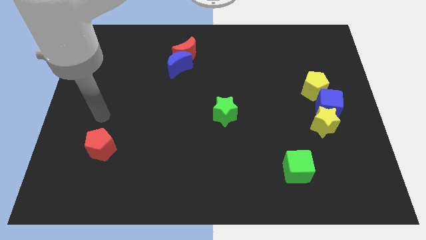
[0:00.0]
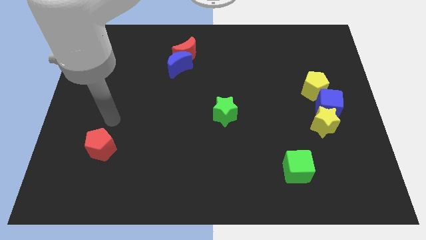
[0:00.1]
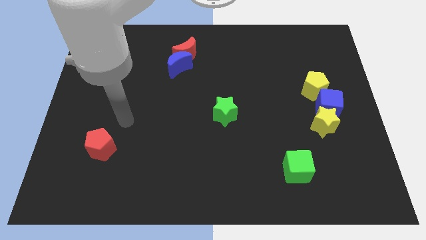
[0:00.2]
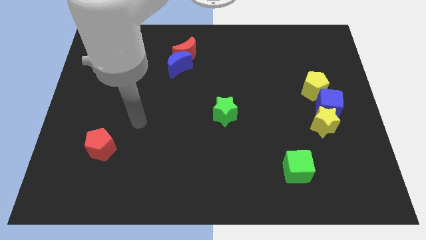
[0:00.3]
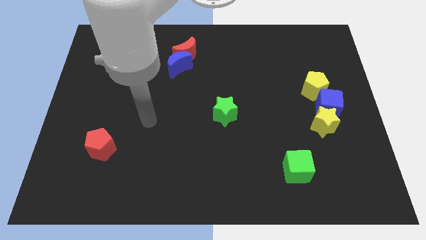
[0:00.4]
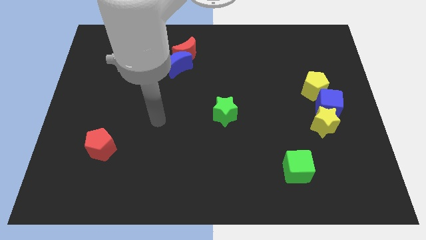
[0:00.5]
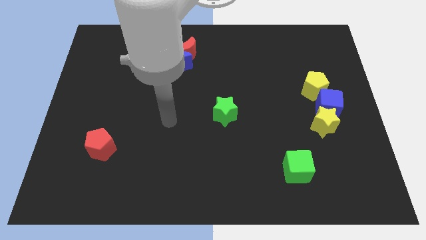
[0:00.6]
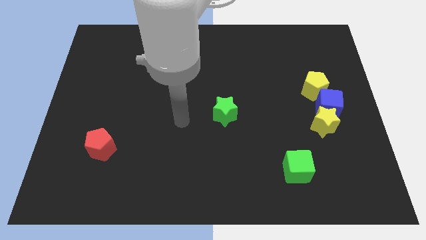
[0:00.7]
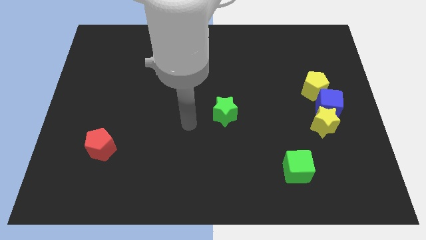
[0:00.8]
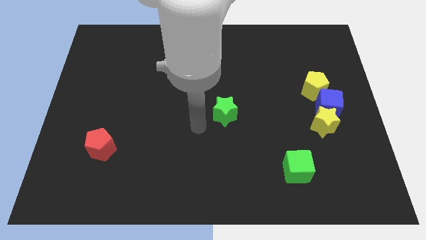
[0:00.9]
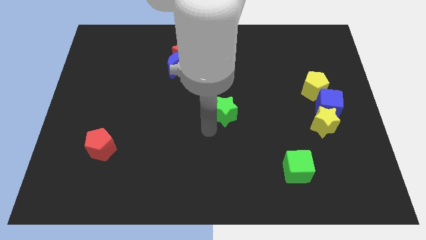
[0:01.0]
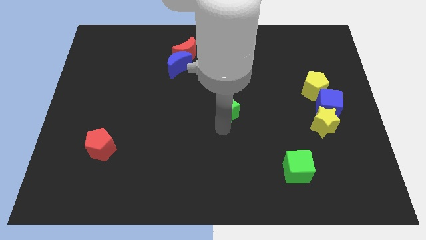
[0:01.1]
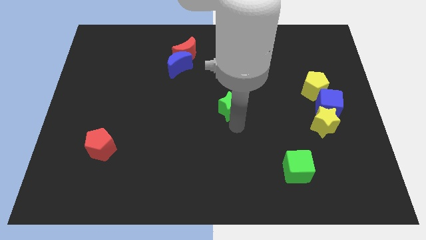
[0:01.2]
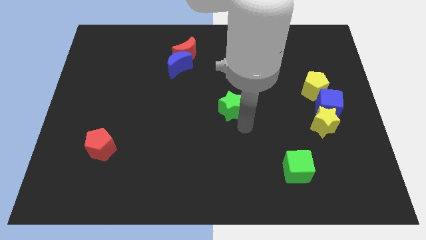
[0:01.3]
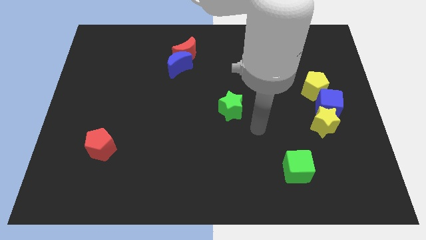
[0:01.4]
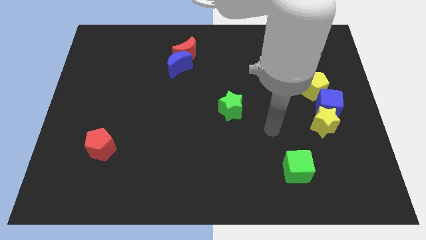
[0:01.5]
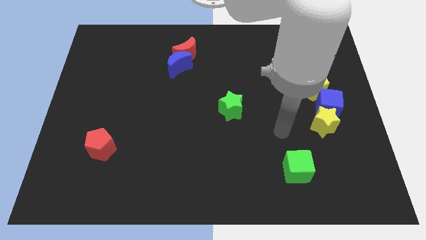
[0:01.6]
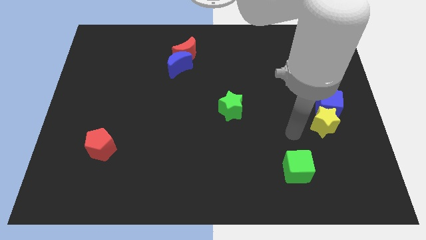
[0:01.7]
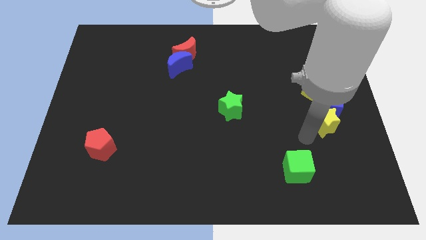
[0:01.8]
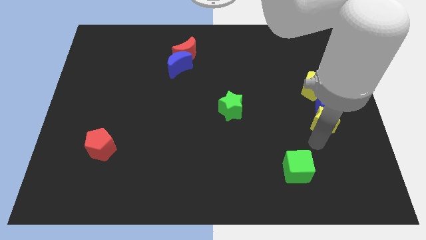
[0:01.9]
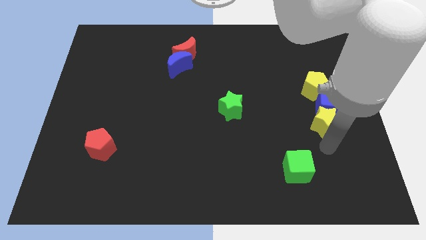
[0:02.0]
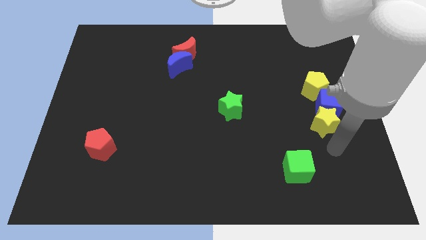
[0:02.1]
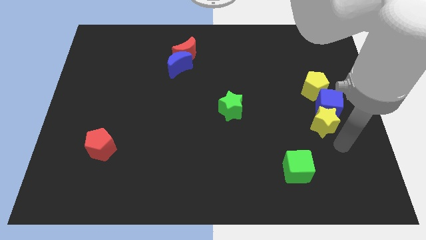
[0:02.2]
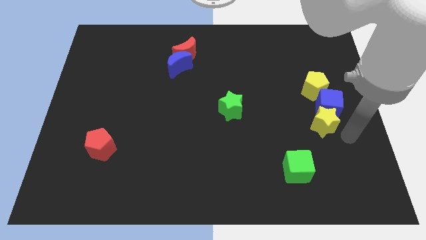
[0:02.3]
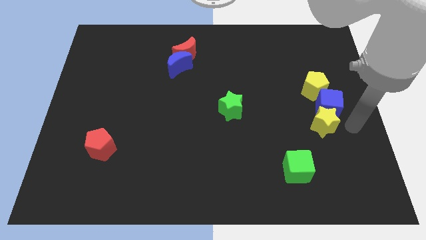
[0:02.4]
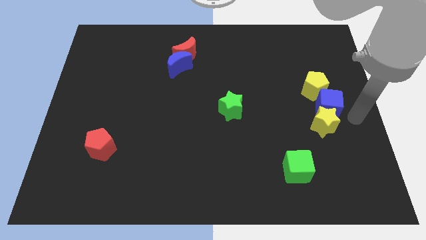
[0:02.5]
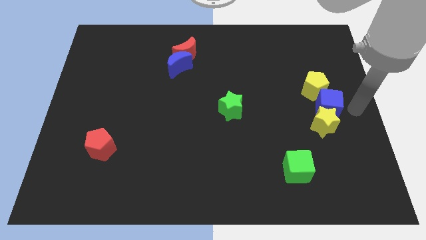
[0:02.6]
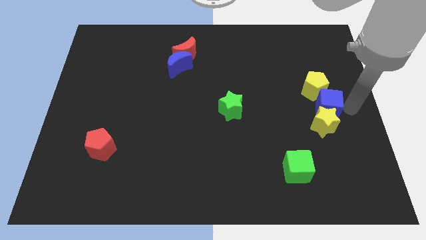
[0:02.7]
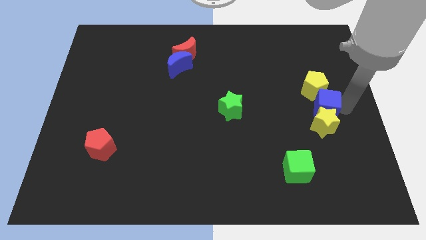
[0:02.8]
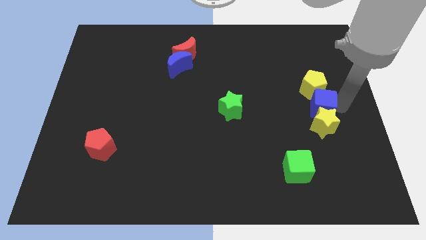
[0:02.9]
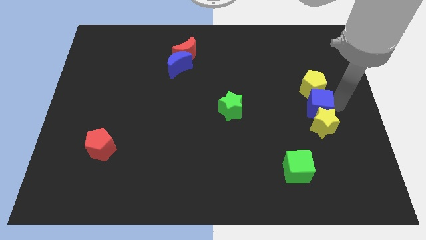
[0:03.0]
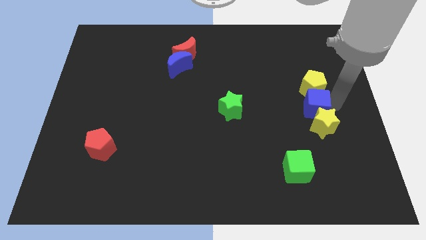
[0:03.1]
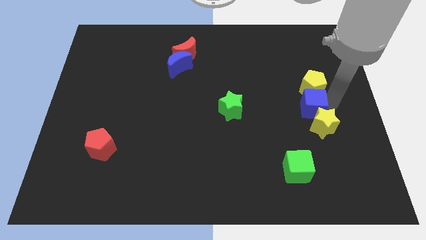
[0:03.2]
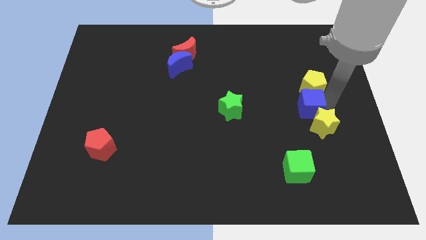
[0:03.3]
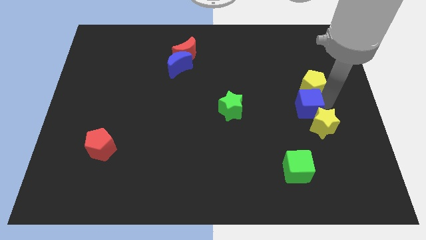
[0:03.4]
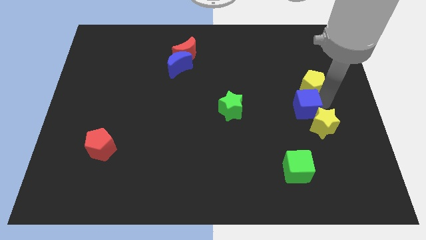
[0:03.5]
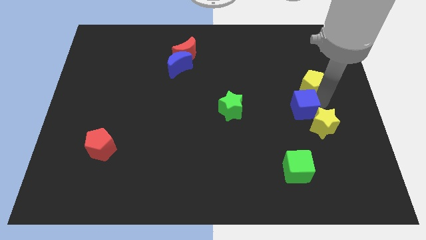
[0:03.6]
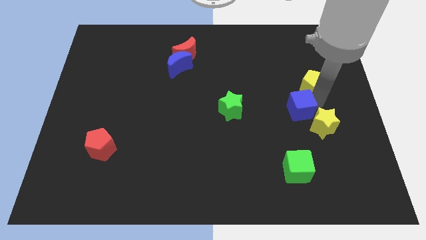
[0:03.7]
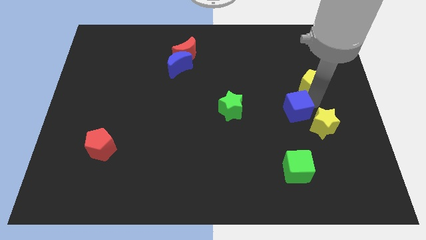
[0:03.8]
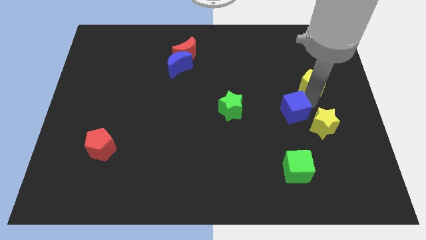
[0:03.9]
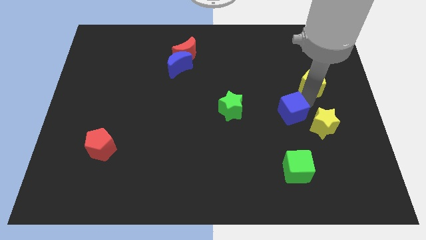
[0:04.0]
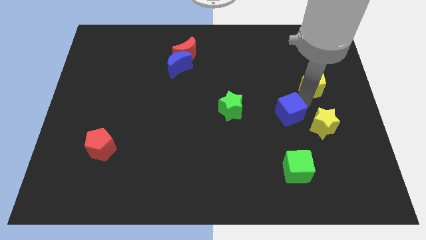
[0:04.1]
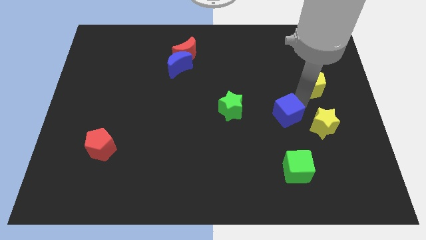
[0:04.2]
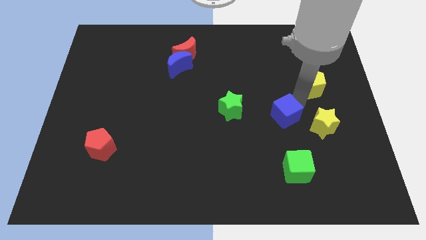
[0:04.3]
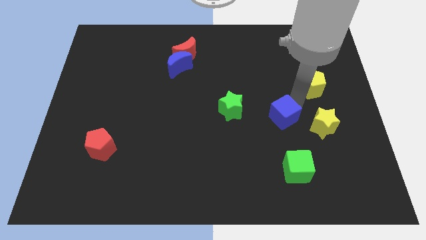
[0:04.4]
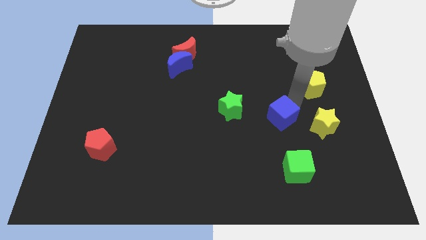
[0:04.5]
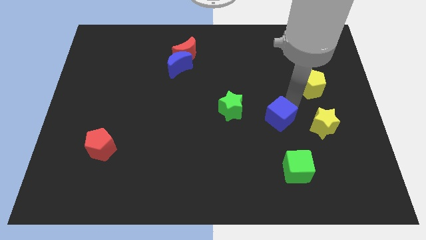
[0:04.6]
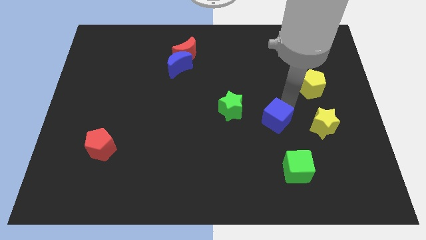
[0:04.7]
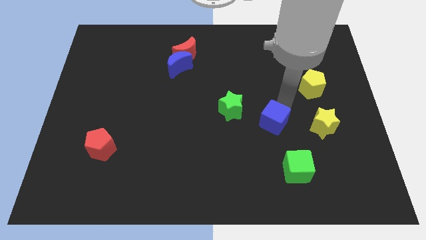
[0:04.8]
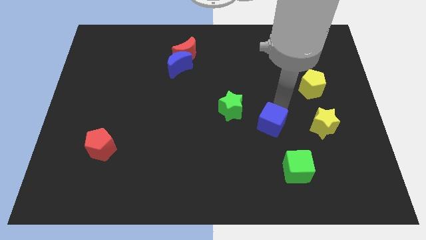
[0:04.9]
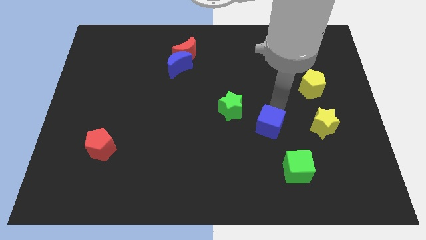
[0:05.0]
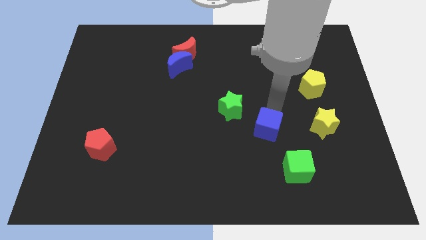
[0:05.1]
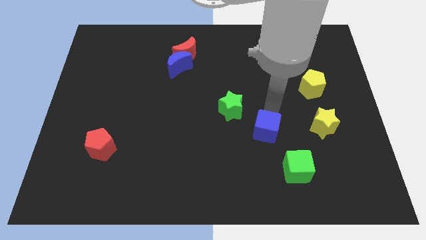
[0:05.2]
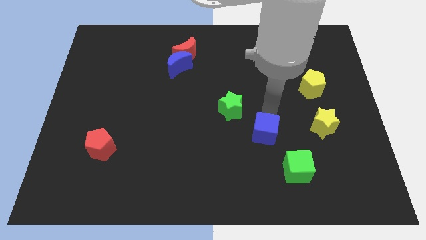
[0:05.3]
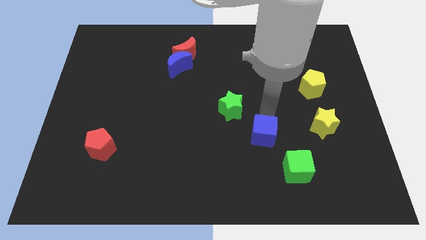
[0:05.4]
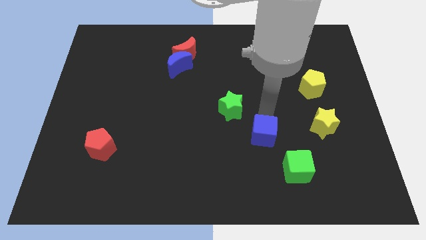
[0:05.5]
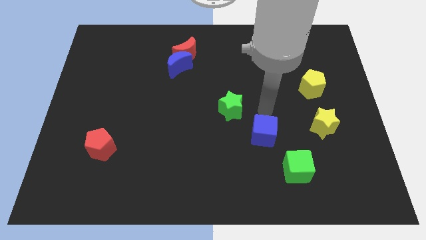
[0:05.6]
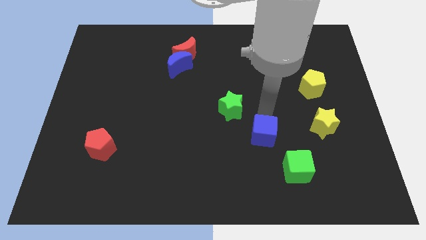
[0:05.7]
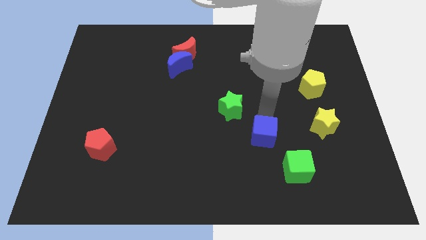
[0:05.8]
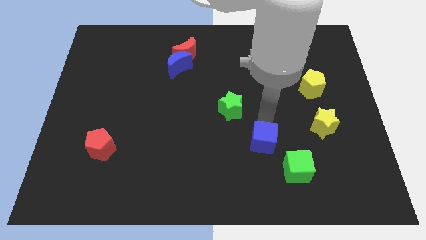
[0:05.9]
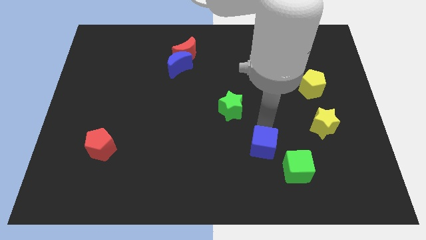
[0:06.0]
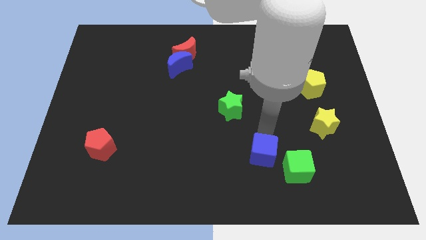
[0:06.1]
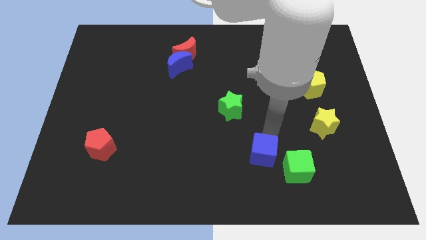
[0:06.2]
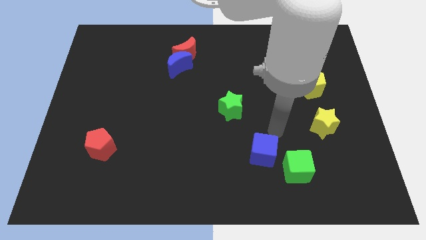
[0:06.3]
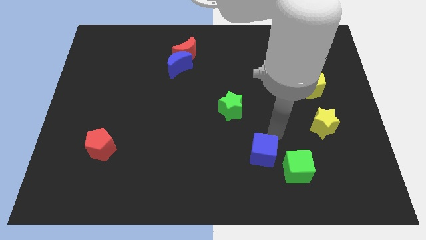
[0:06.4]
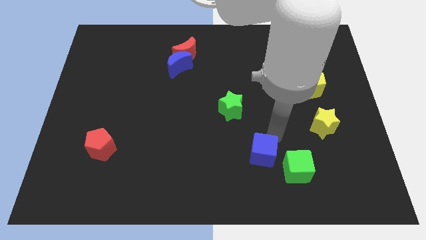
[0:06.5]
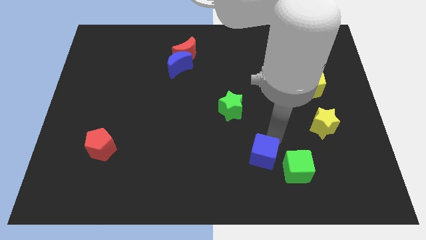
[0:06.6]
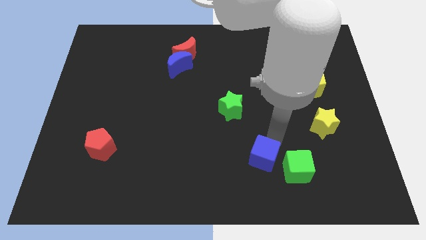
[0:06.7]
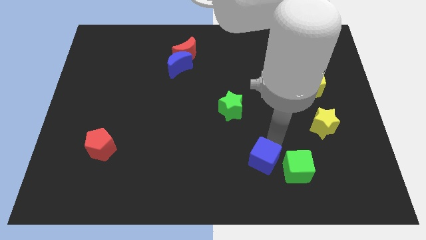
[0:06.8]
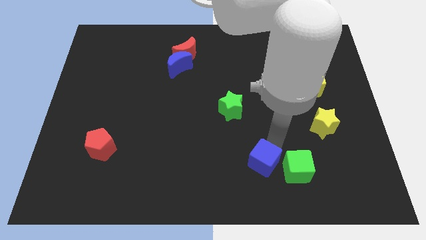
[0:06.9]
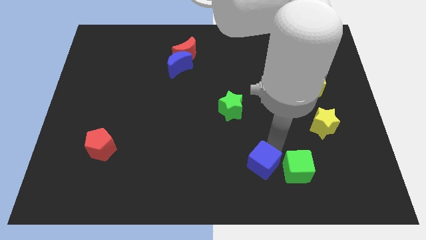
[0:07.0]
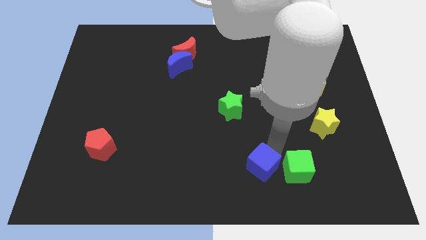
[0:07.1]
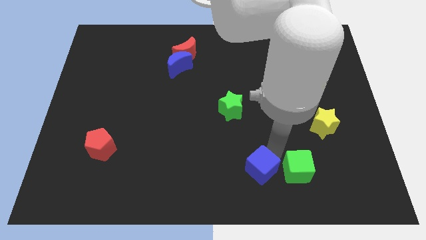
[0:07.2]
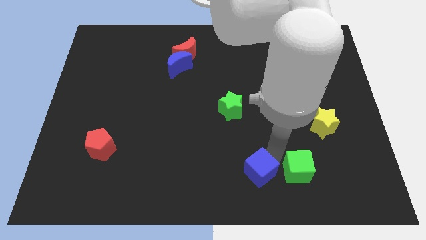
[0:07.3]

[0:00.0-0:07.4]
move the blue cube to the bottom

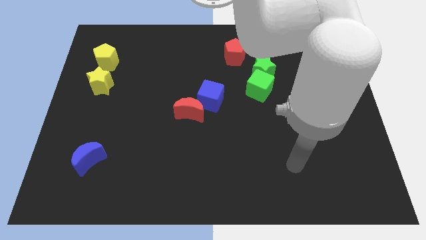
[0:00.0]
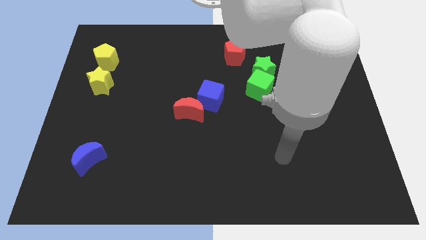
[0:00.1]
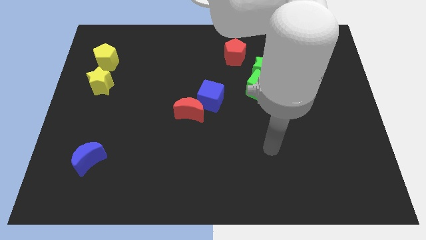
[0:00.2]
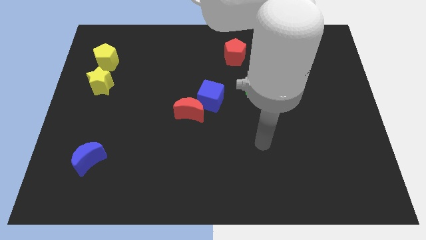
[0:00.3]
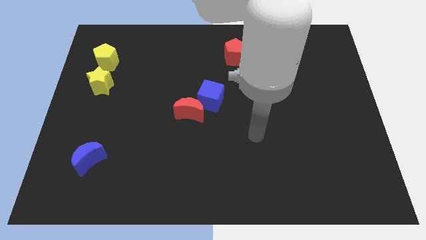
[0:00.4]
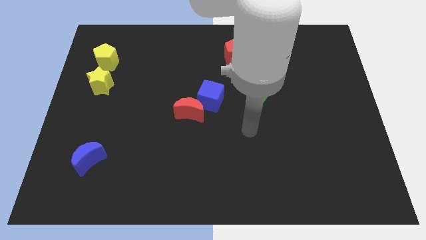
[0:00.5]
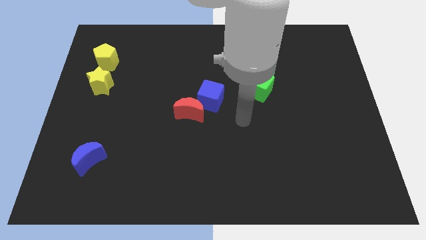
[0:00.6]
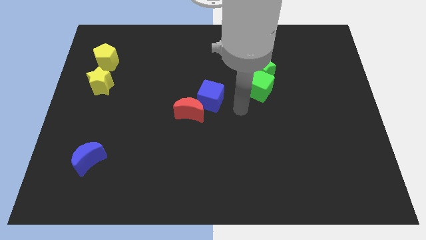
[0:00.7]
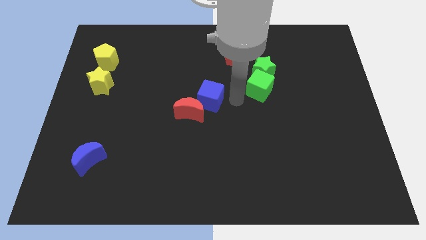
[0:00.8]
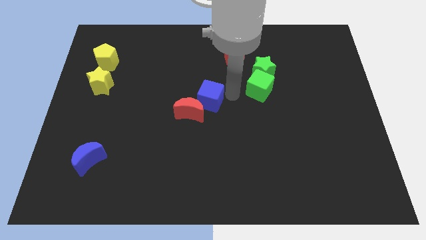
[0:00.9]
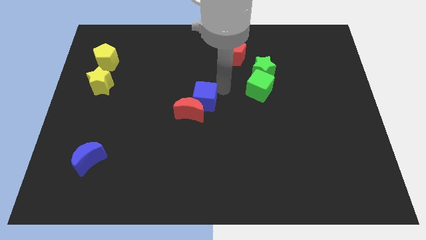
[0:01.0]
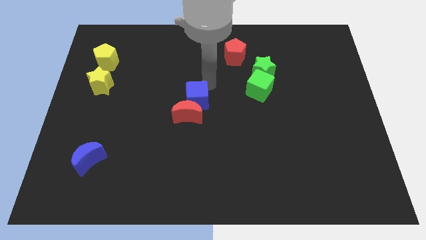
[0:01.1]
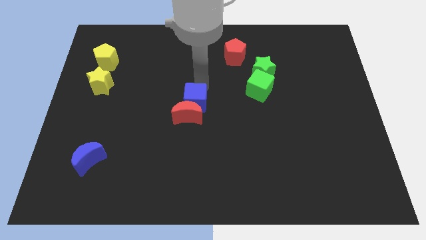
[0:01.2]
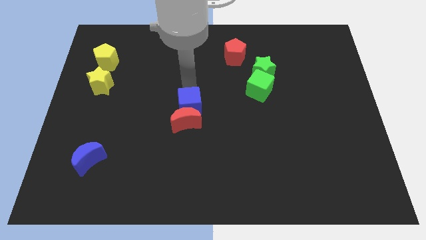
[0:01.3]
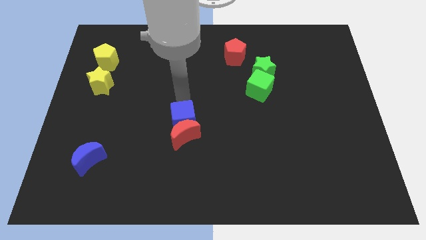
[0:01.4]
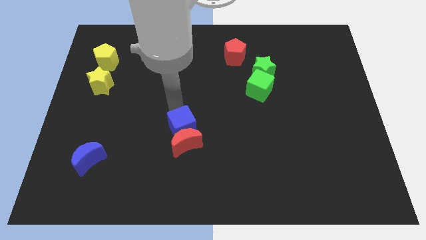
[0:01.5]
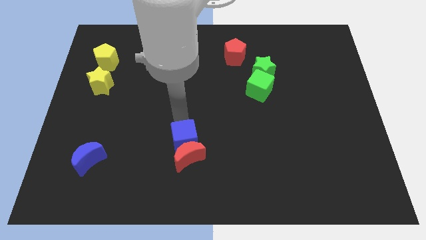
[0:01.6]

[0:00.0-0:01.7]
push the red moon to the bottom
